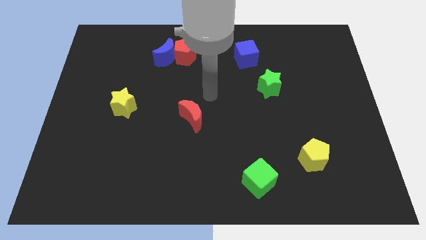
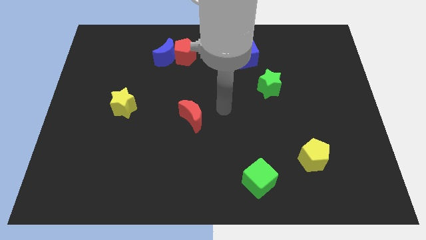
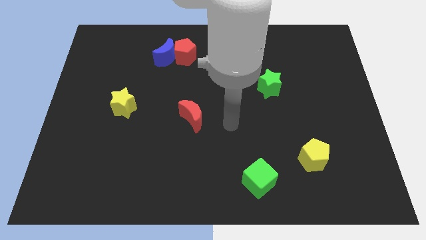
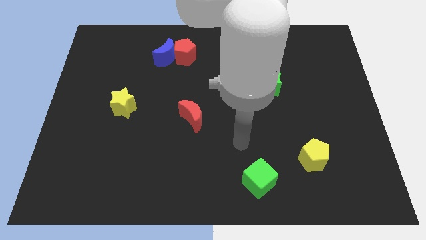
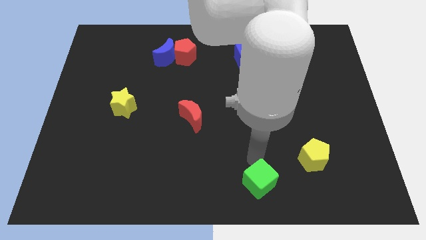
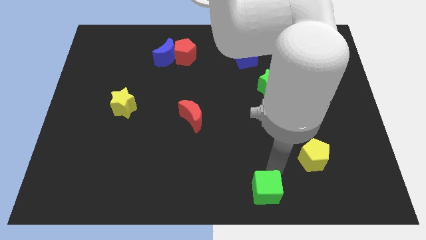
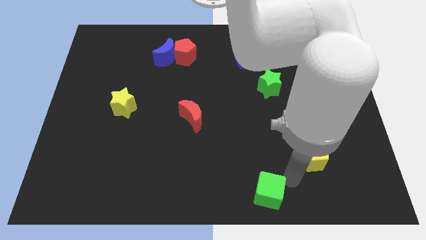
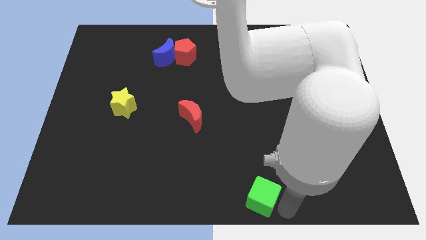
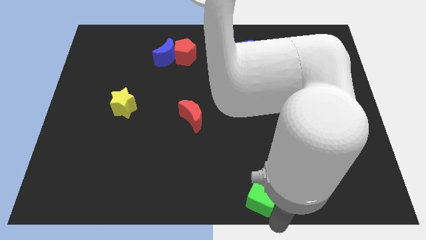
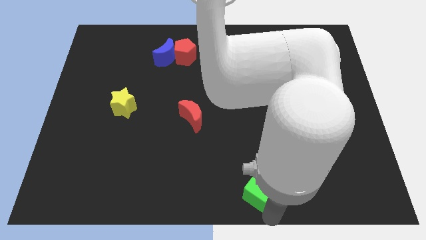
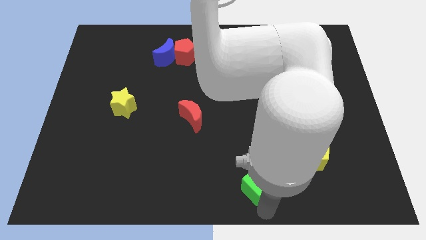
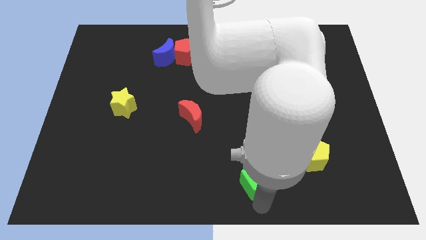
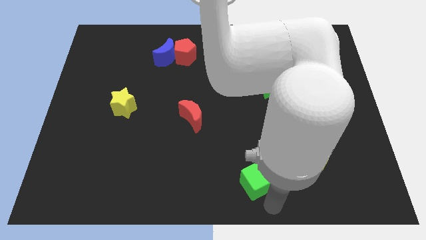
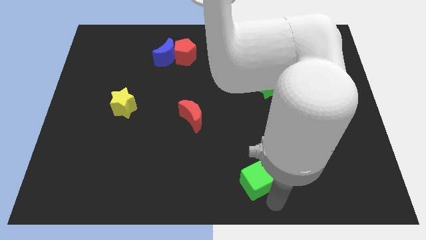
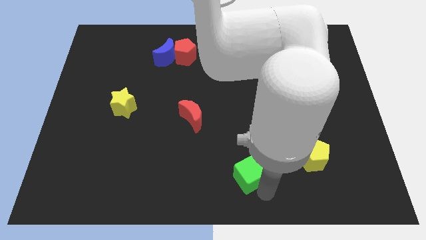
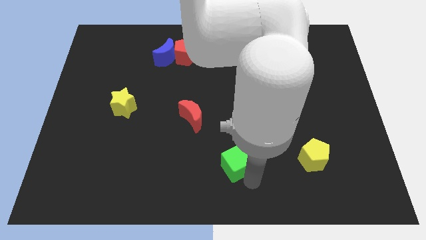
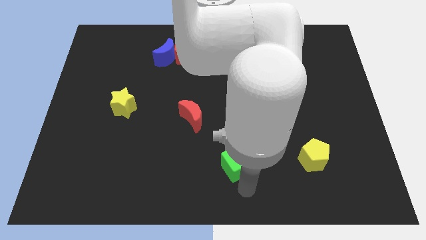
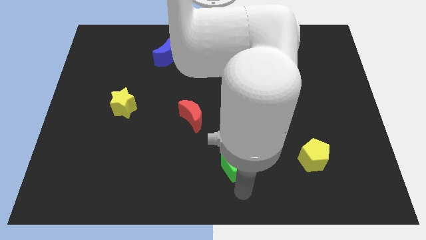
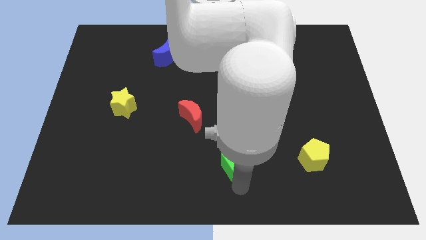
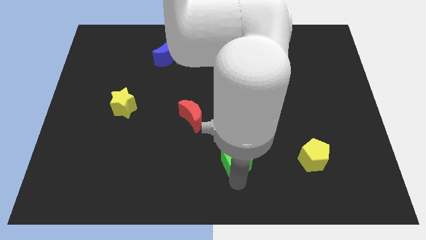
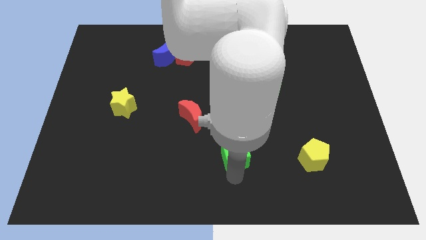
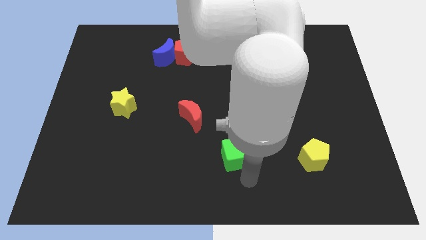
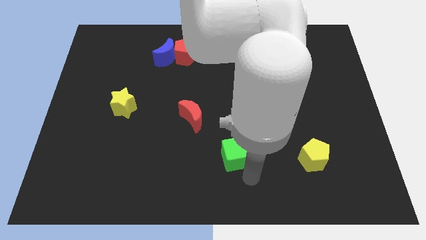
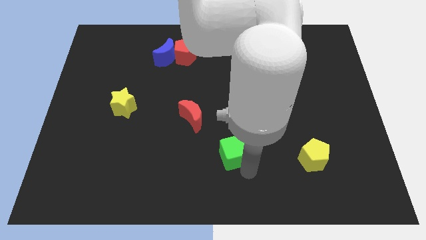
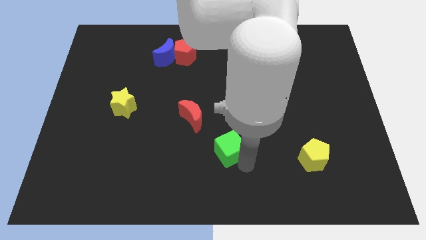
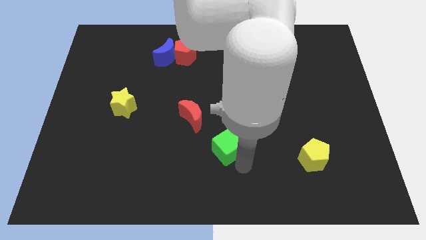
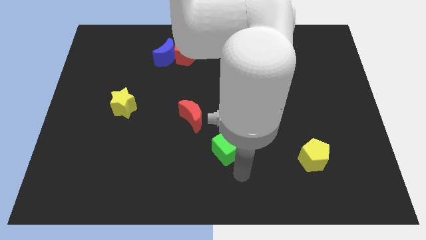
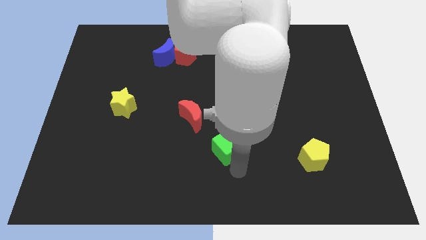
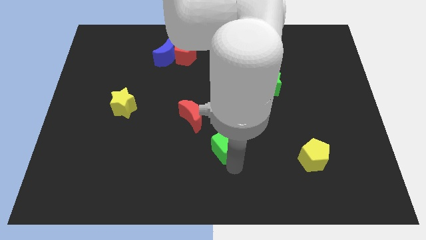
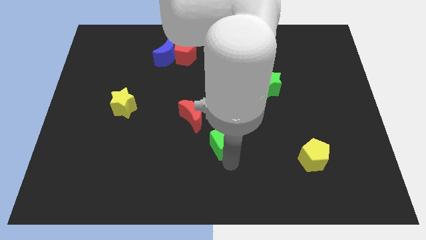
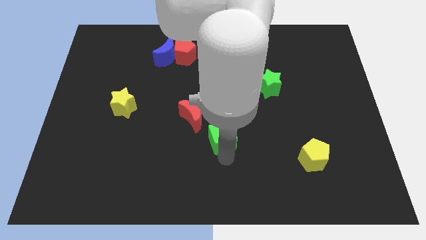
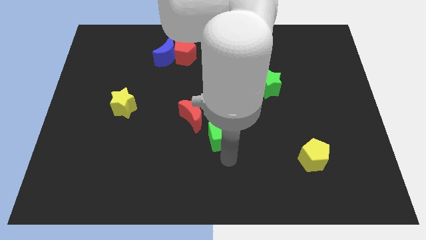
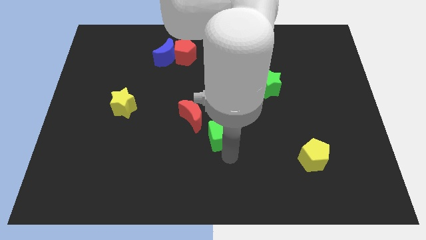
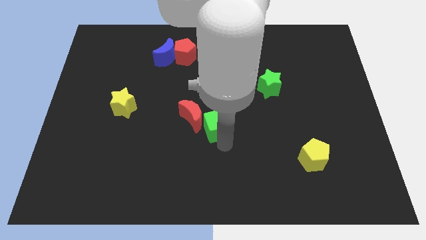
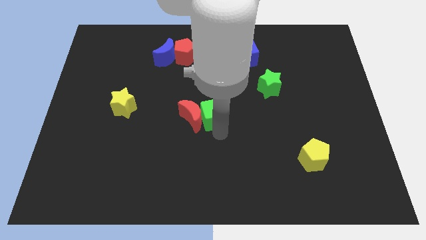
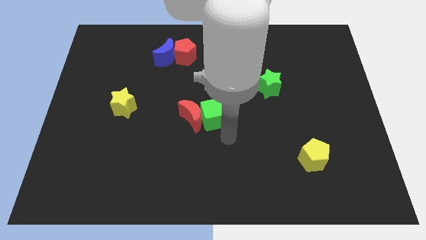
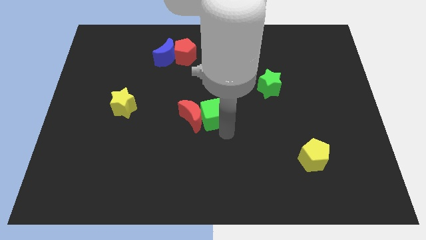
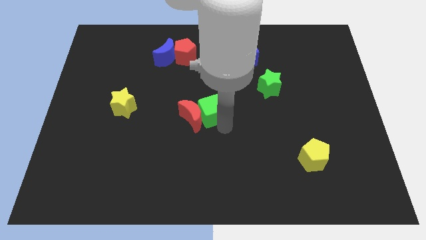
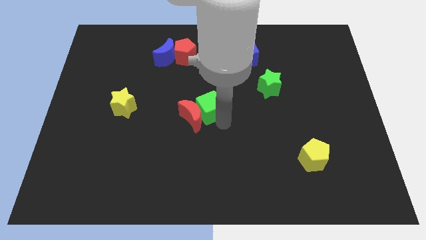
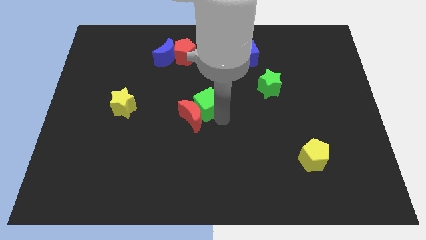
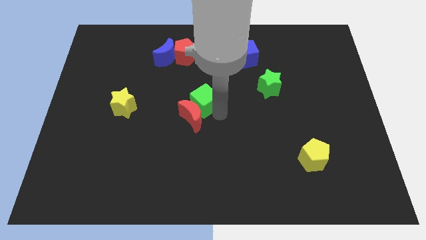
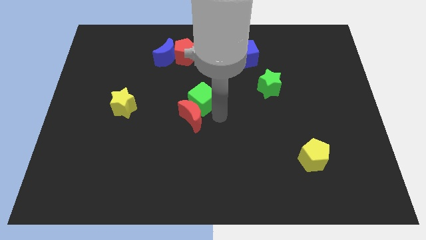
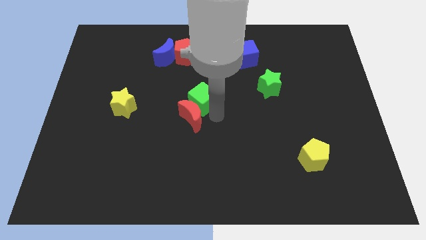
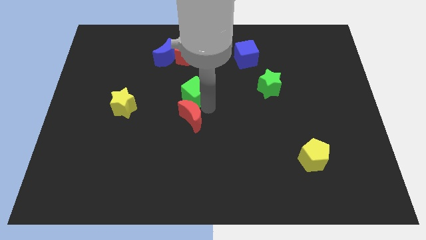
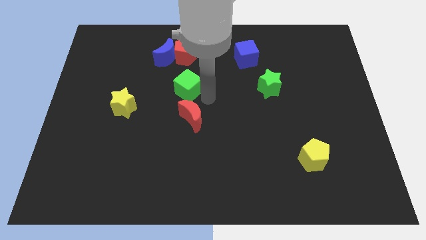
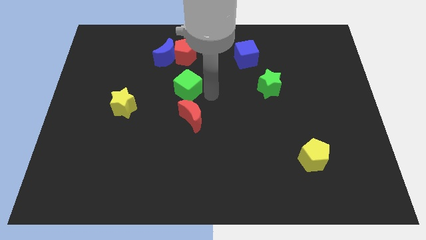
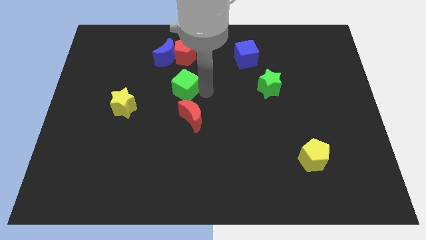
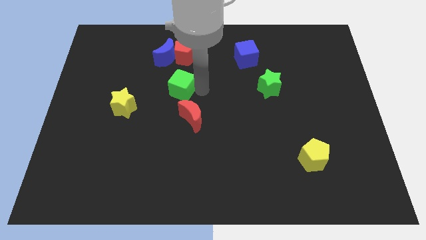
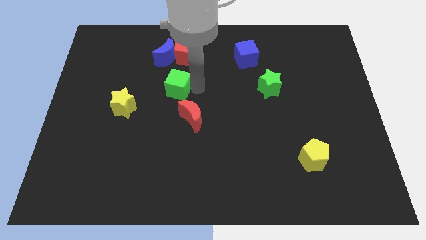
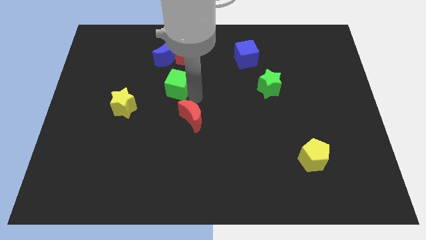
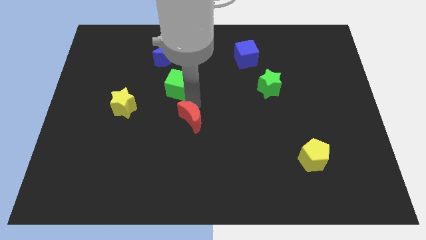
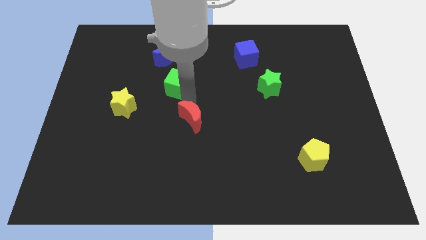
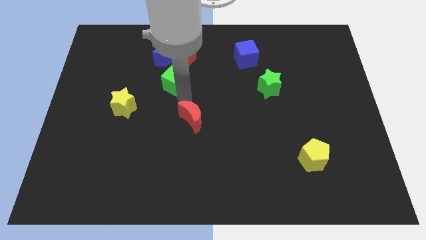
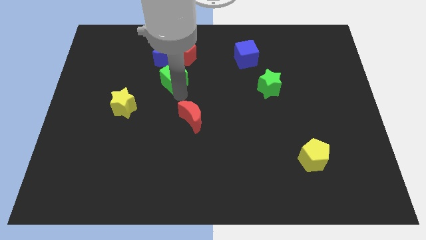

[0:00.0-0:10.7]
put the green cube to the bottom left side of the red pentagon

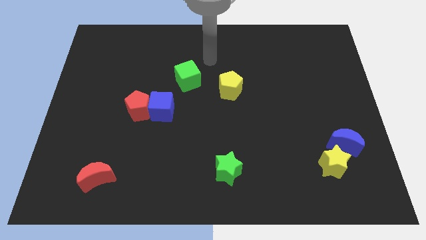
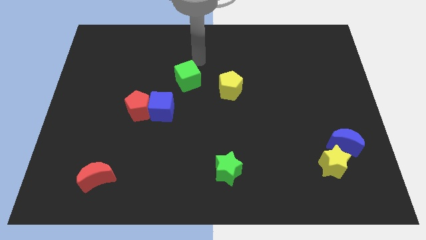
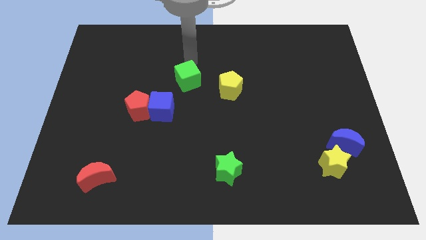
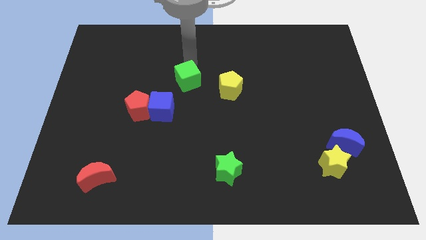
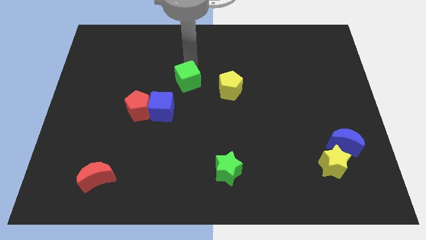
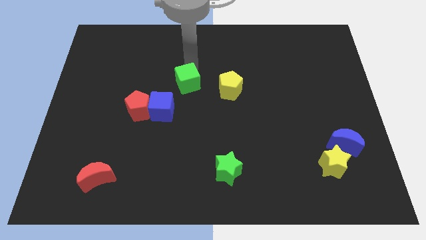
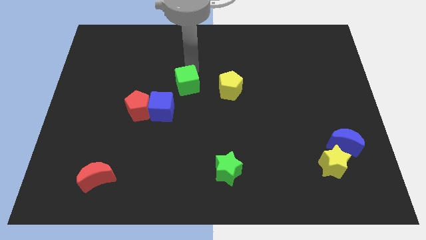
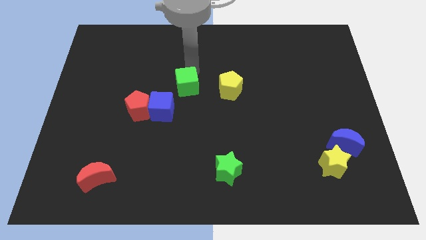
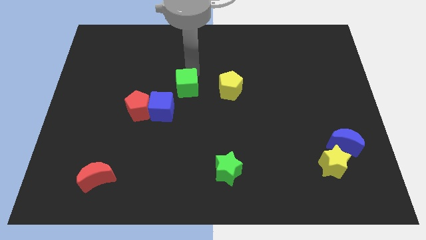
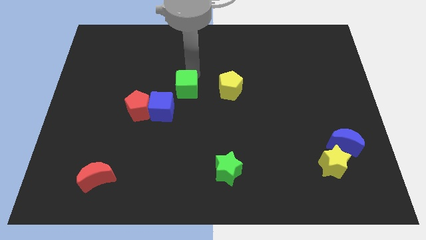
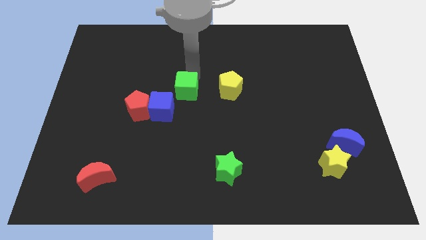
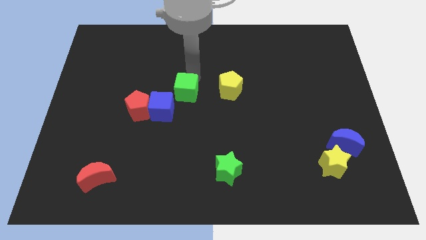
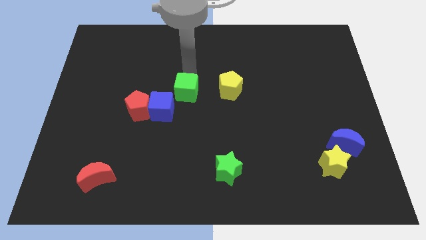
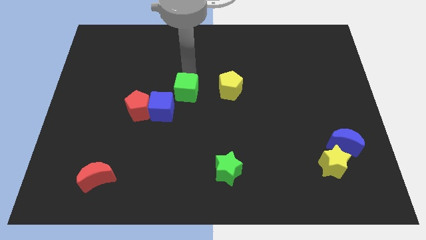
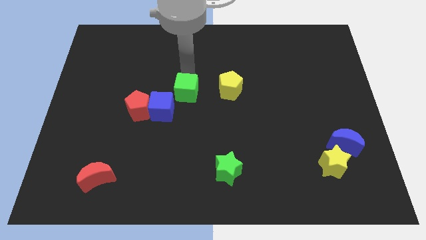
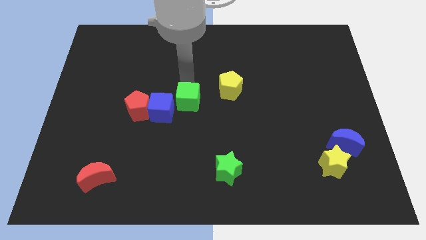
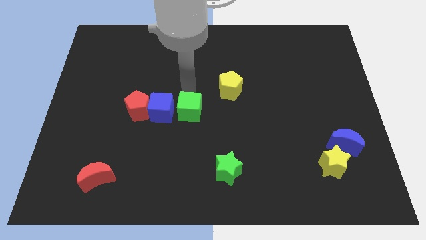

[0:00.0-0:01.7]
slide the green cube diagonally down and to the right of the blue cube
